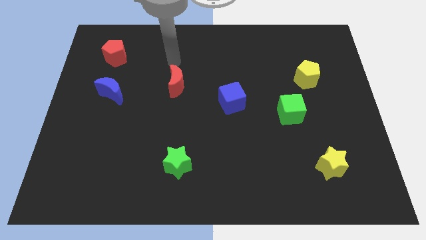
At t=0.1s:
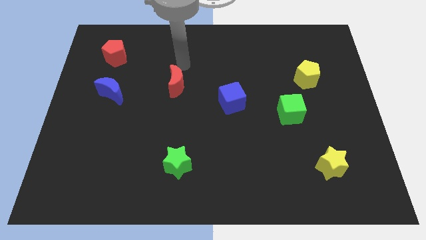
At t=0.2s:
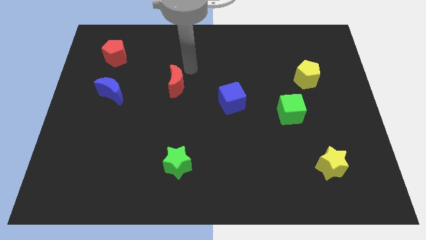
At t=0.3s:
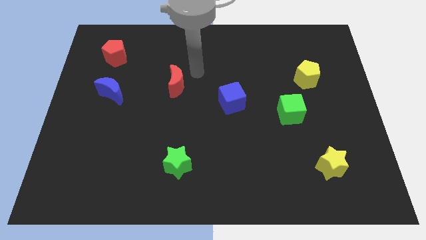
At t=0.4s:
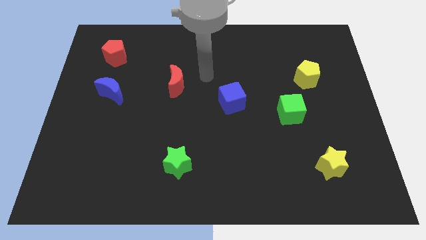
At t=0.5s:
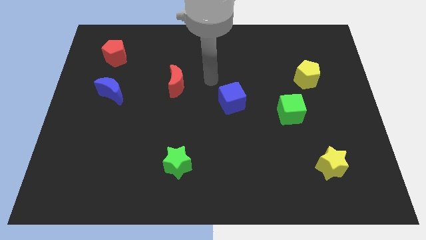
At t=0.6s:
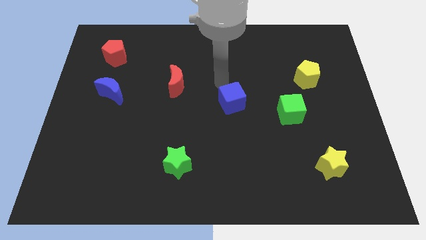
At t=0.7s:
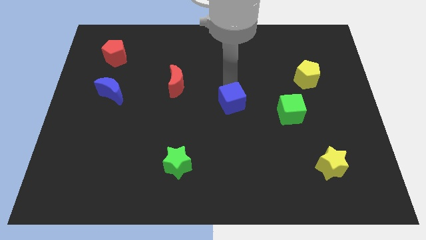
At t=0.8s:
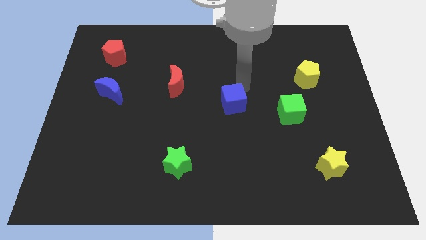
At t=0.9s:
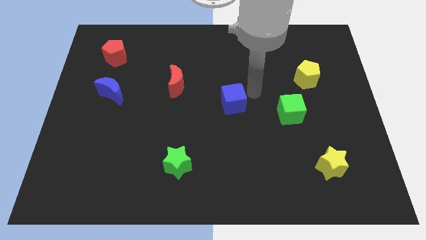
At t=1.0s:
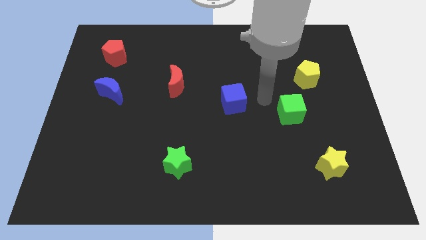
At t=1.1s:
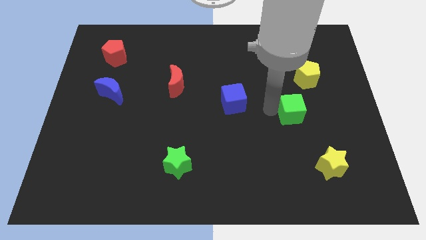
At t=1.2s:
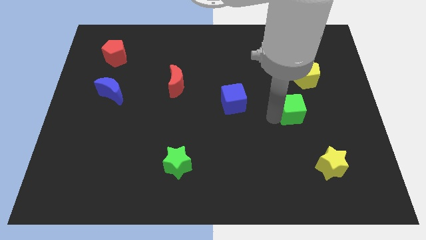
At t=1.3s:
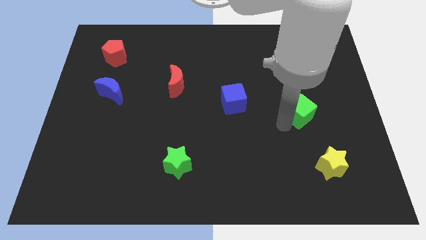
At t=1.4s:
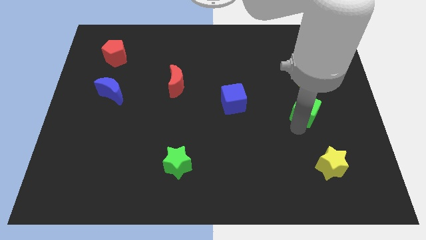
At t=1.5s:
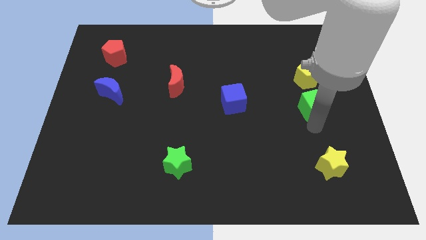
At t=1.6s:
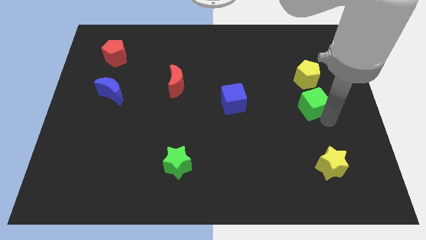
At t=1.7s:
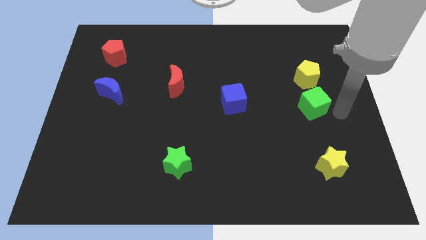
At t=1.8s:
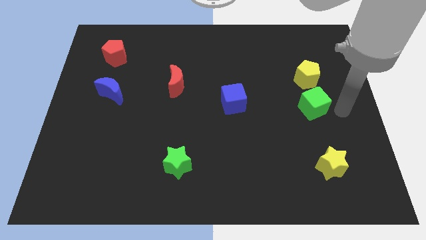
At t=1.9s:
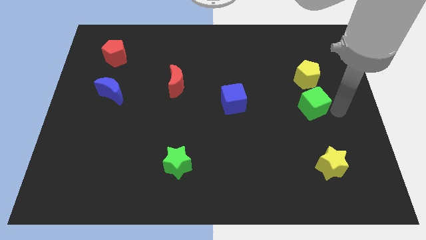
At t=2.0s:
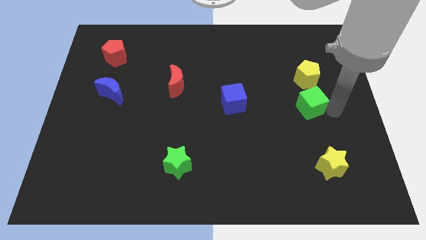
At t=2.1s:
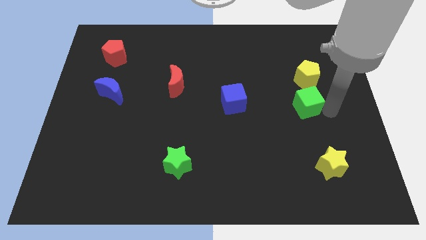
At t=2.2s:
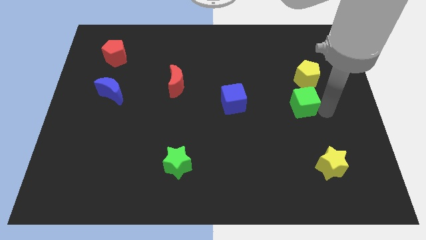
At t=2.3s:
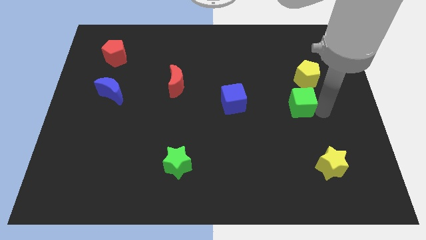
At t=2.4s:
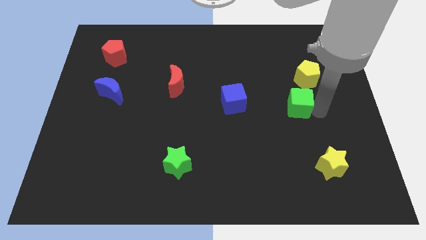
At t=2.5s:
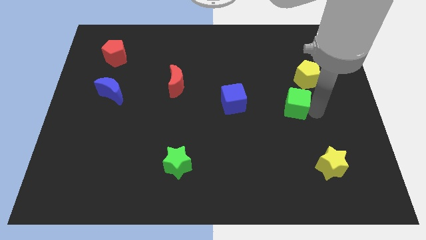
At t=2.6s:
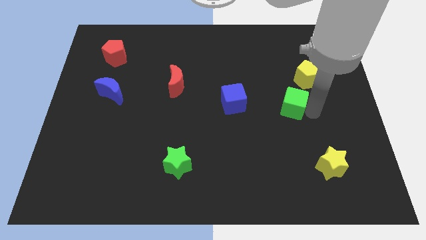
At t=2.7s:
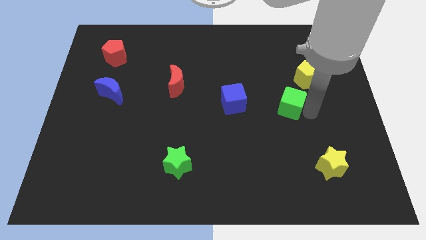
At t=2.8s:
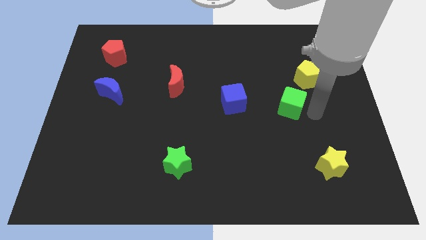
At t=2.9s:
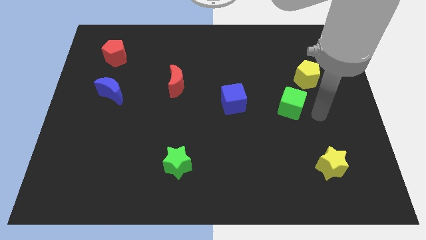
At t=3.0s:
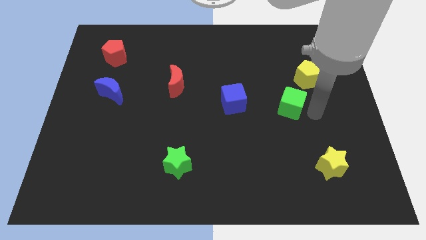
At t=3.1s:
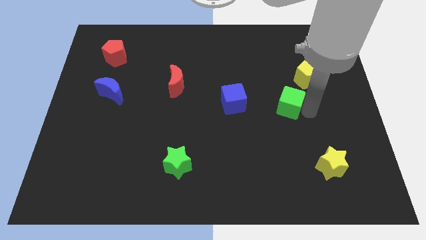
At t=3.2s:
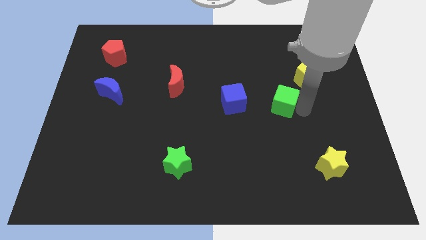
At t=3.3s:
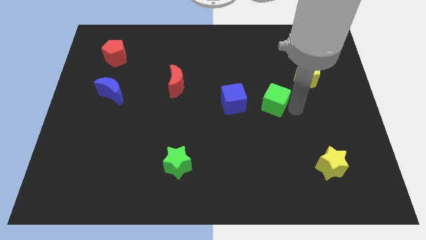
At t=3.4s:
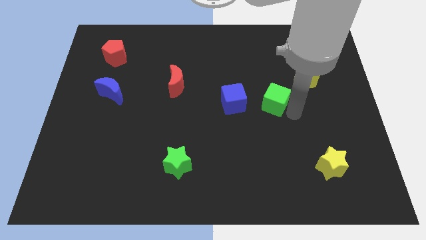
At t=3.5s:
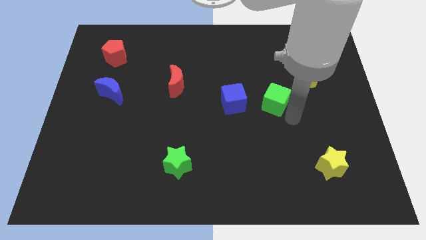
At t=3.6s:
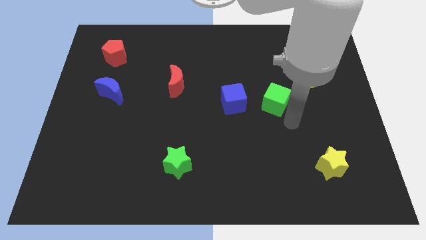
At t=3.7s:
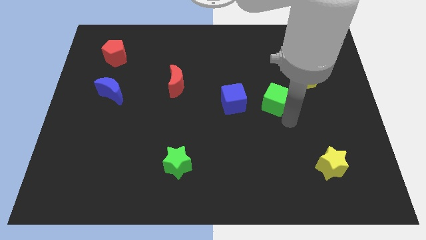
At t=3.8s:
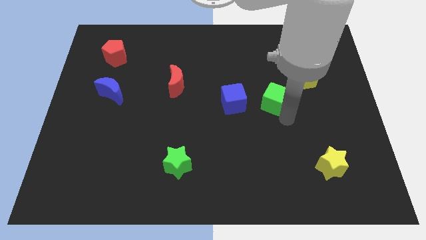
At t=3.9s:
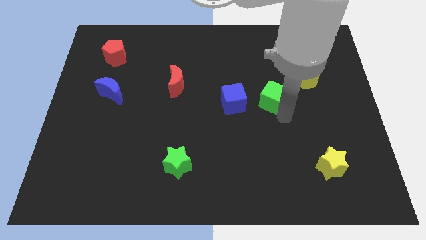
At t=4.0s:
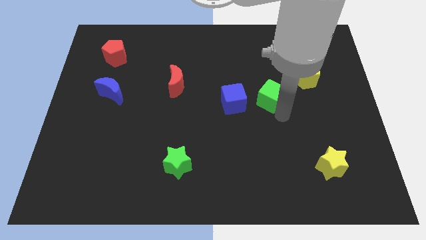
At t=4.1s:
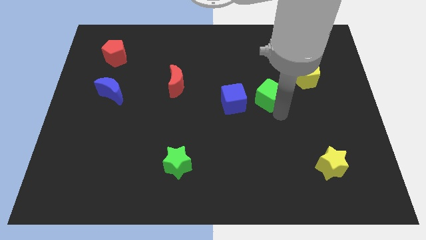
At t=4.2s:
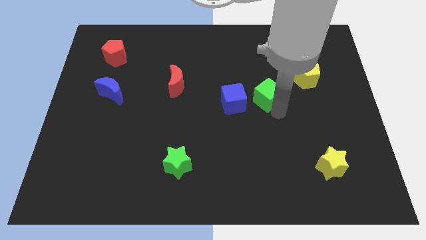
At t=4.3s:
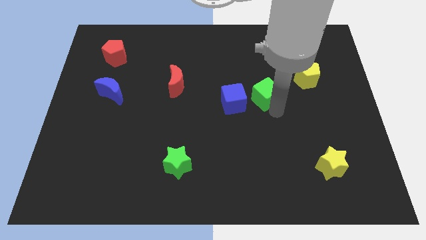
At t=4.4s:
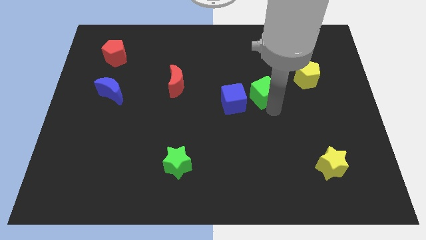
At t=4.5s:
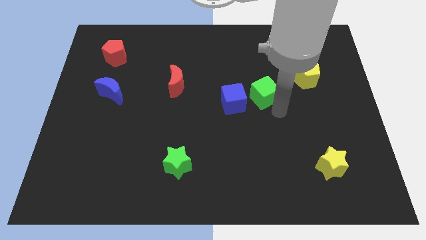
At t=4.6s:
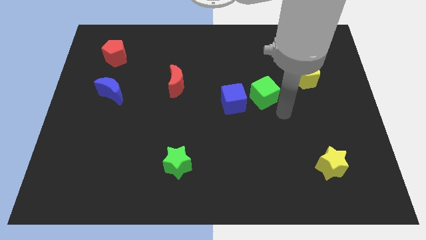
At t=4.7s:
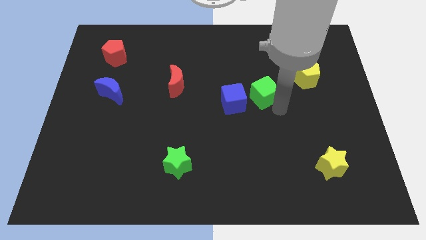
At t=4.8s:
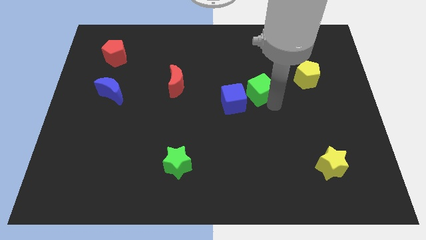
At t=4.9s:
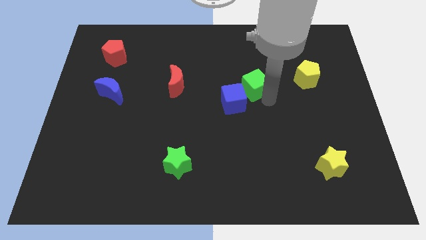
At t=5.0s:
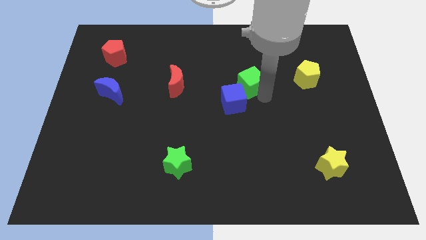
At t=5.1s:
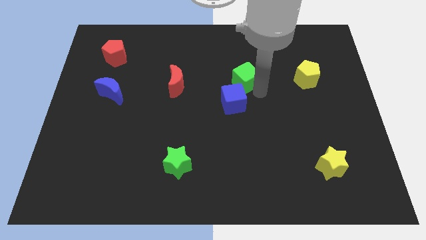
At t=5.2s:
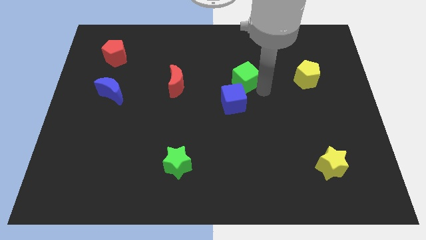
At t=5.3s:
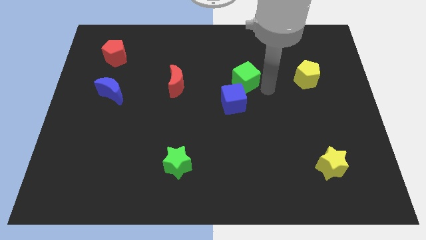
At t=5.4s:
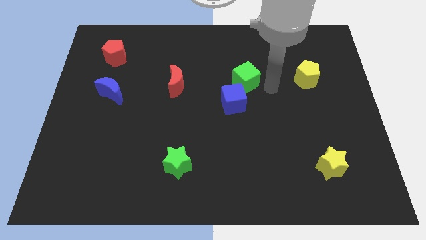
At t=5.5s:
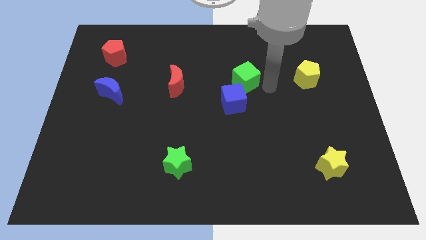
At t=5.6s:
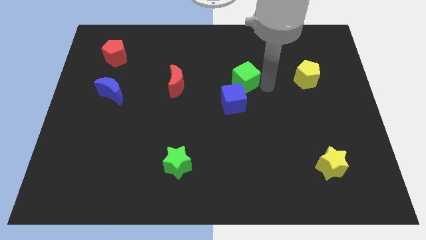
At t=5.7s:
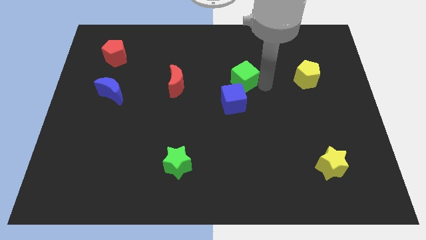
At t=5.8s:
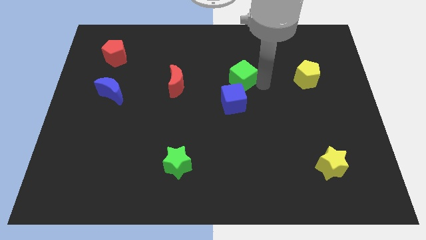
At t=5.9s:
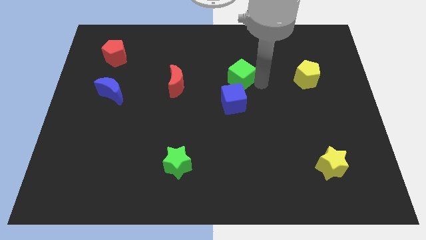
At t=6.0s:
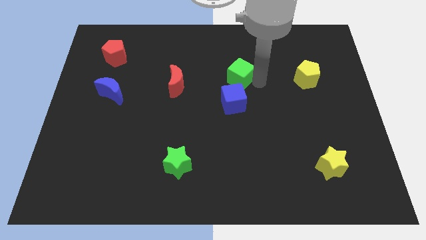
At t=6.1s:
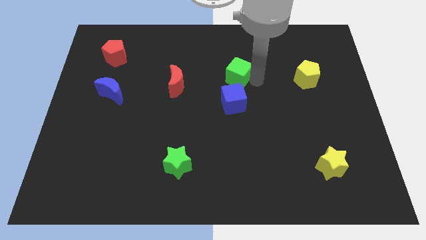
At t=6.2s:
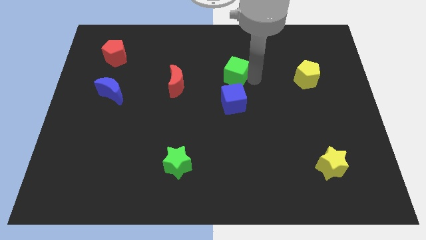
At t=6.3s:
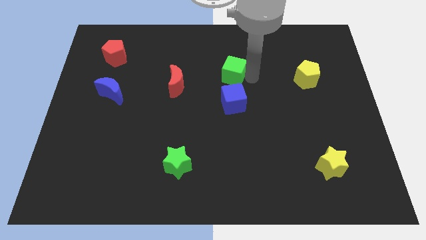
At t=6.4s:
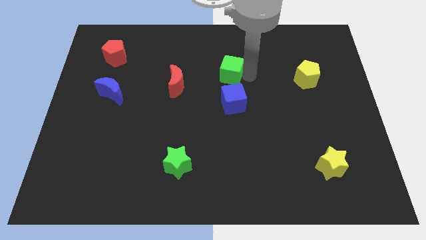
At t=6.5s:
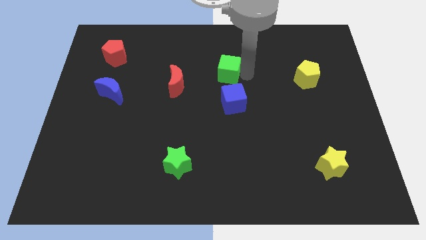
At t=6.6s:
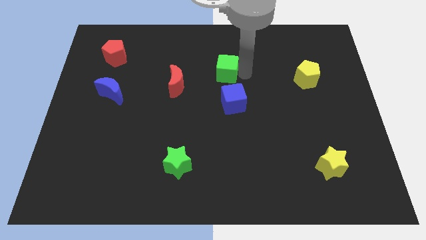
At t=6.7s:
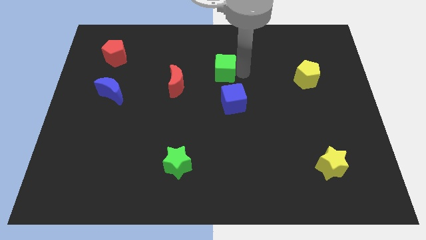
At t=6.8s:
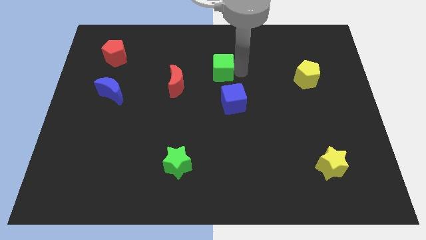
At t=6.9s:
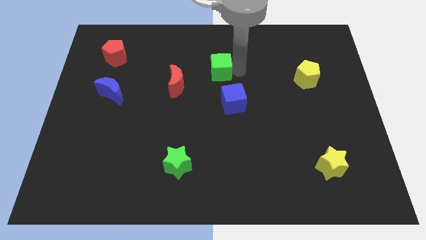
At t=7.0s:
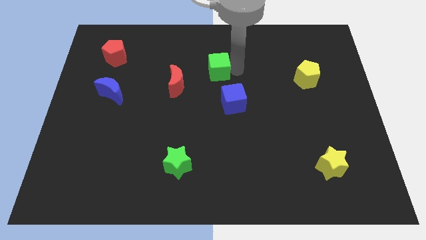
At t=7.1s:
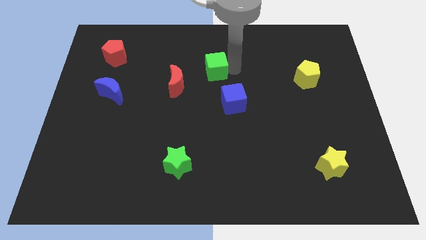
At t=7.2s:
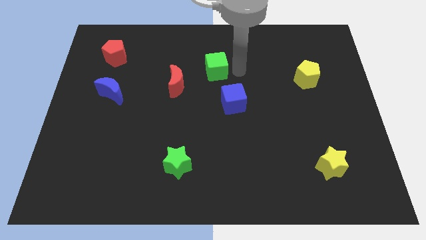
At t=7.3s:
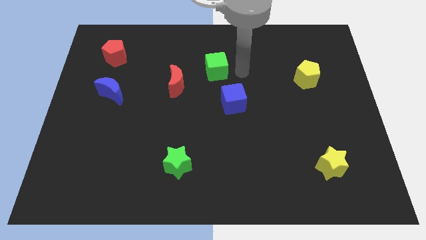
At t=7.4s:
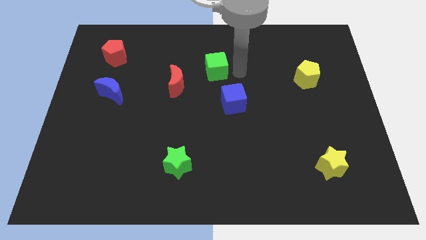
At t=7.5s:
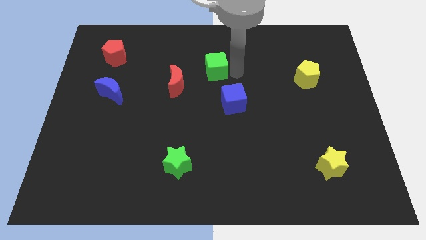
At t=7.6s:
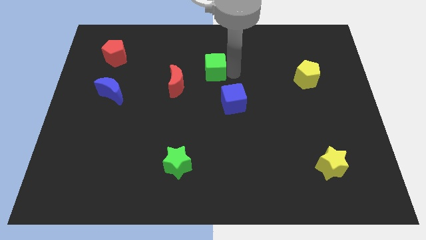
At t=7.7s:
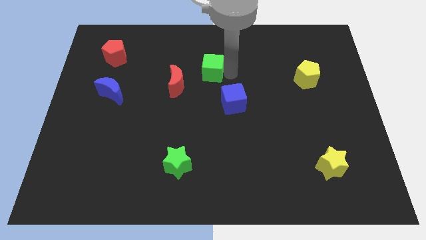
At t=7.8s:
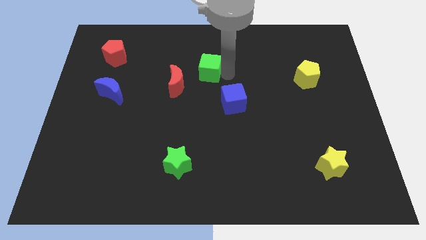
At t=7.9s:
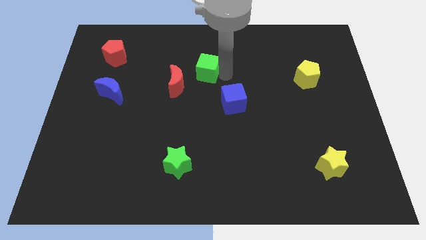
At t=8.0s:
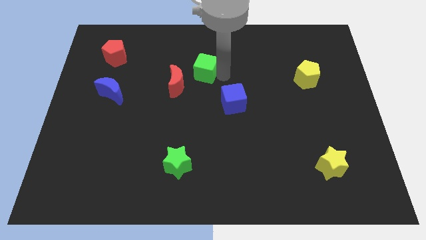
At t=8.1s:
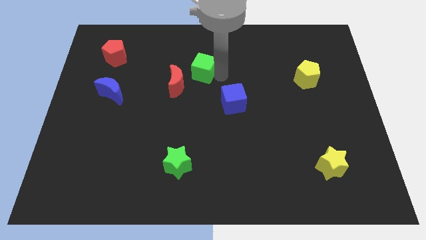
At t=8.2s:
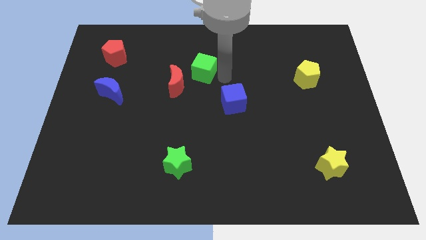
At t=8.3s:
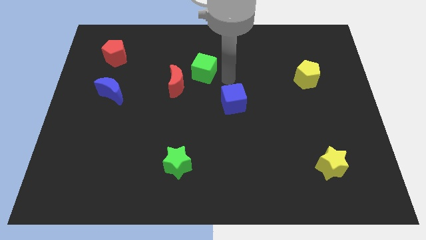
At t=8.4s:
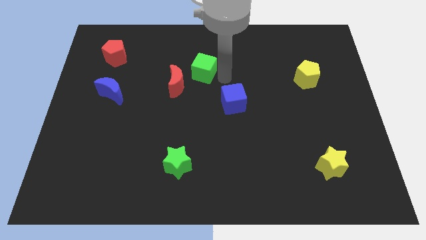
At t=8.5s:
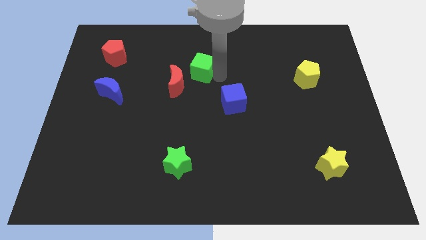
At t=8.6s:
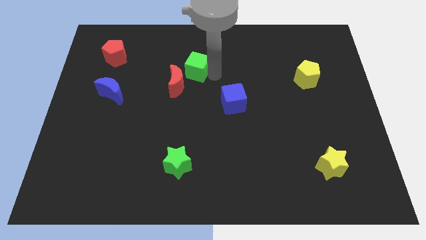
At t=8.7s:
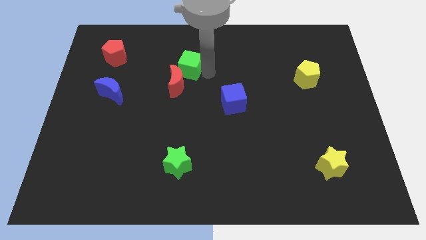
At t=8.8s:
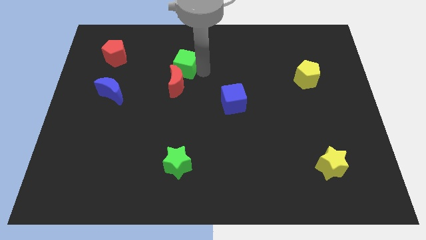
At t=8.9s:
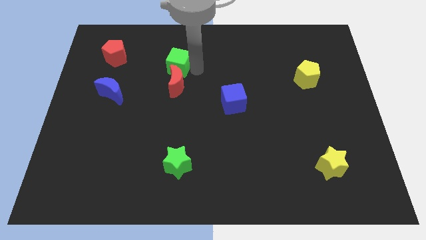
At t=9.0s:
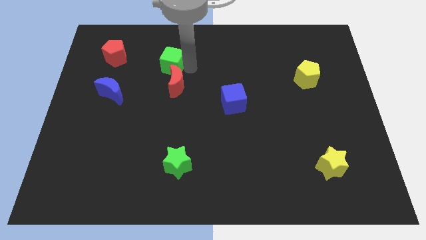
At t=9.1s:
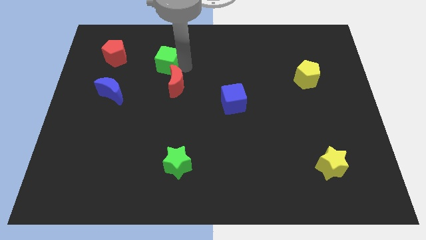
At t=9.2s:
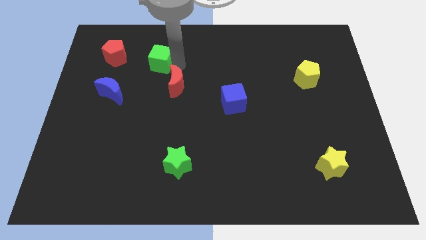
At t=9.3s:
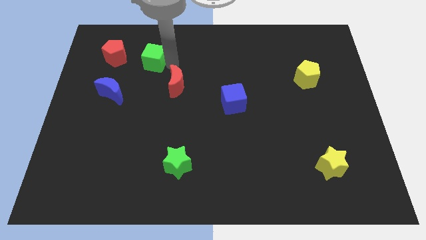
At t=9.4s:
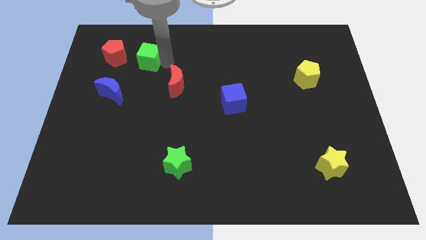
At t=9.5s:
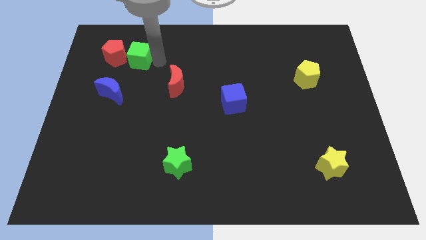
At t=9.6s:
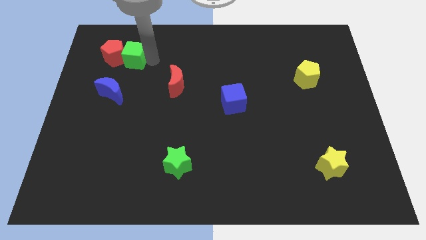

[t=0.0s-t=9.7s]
put the green cube close to the red pentagon
